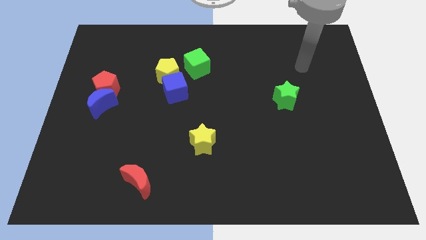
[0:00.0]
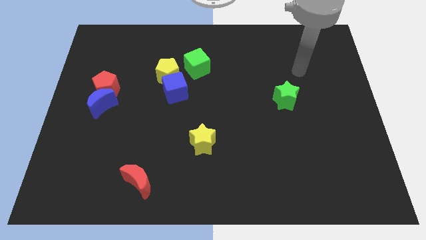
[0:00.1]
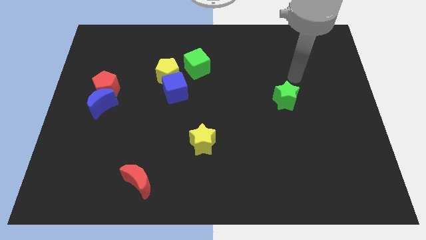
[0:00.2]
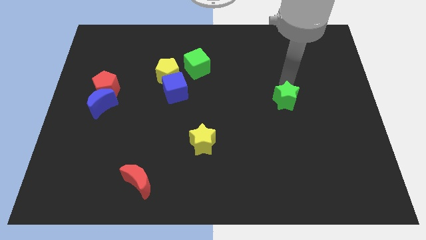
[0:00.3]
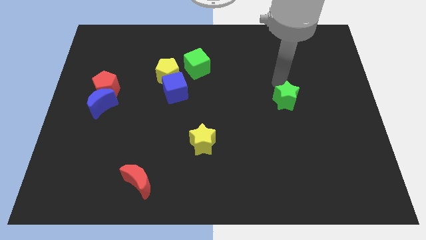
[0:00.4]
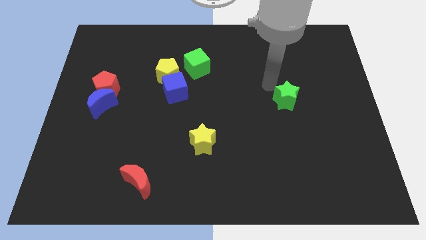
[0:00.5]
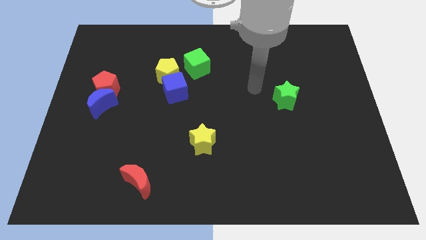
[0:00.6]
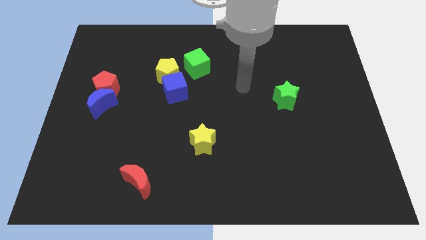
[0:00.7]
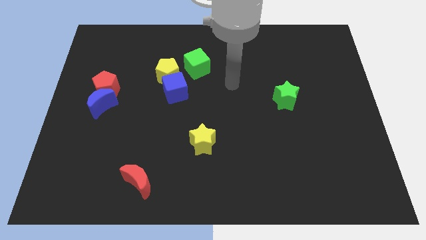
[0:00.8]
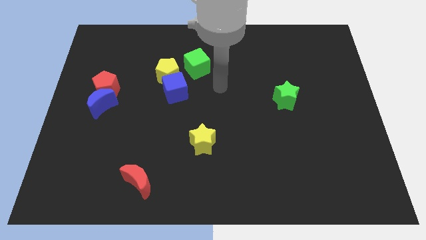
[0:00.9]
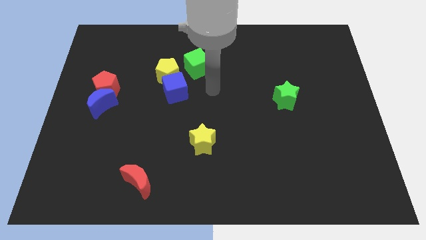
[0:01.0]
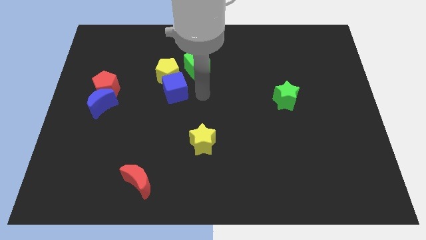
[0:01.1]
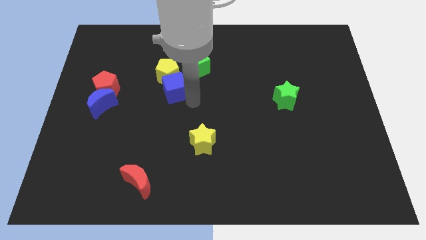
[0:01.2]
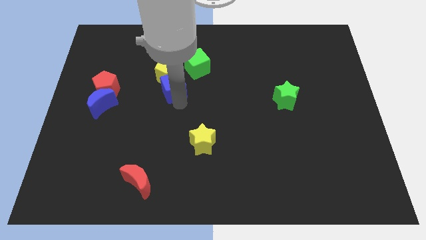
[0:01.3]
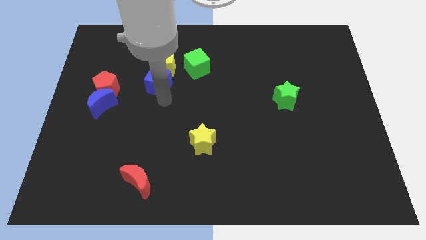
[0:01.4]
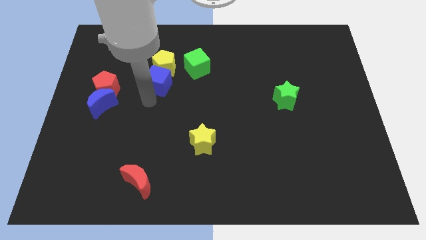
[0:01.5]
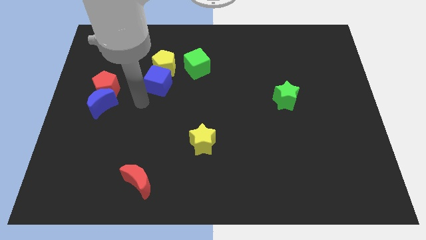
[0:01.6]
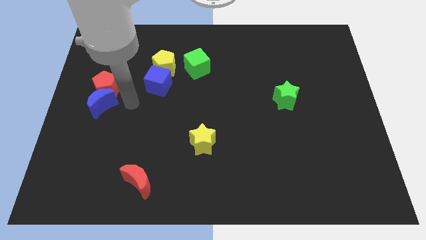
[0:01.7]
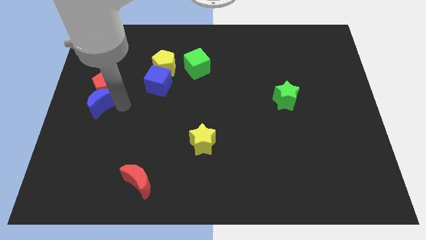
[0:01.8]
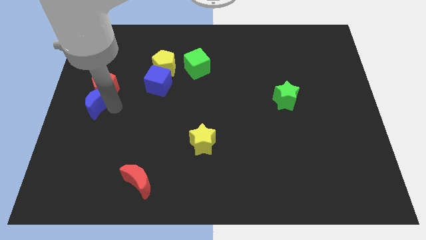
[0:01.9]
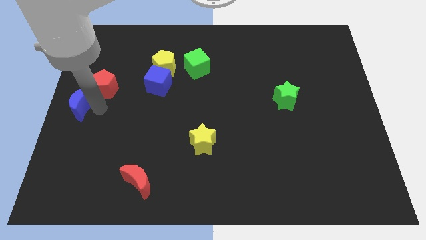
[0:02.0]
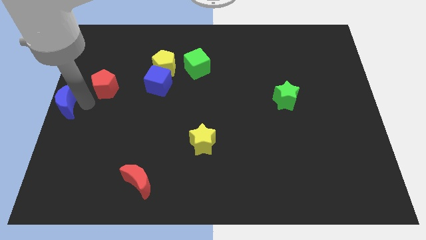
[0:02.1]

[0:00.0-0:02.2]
separate the red pentagon from the blue moon

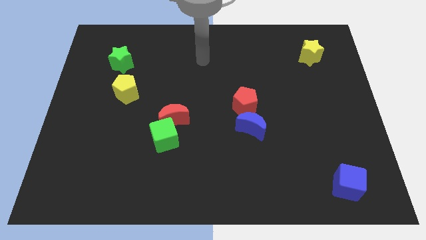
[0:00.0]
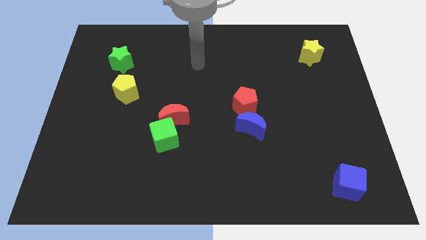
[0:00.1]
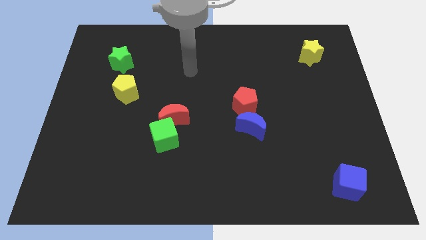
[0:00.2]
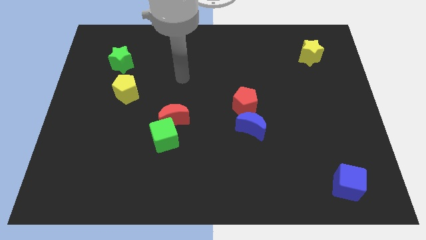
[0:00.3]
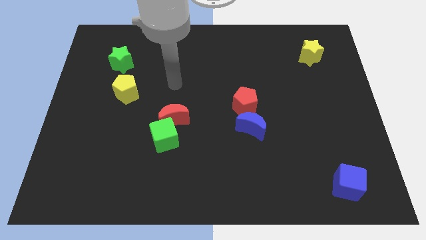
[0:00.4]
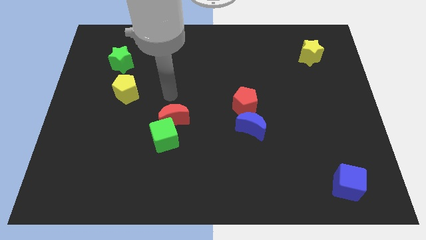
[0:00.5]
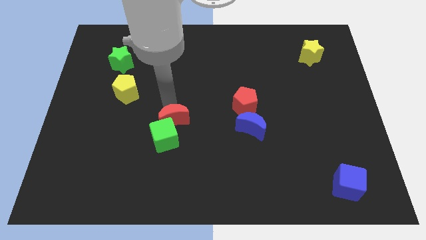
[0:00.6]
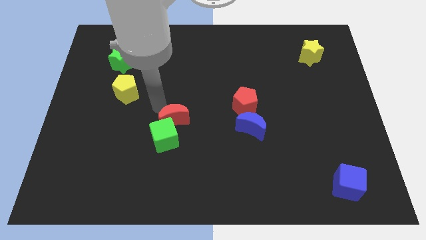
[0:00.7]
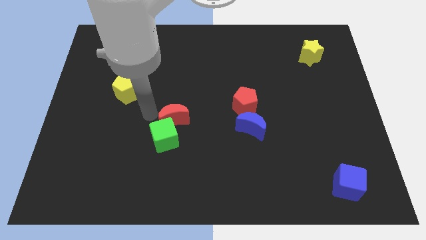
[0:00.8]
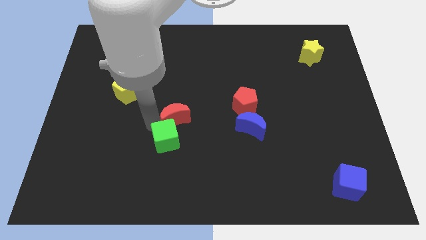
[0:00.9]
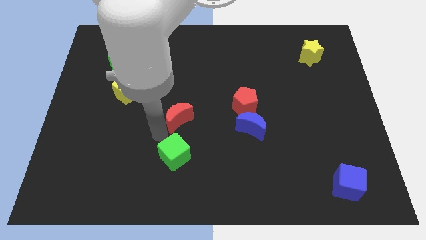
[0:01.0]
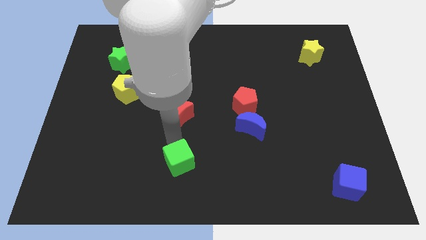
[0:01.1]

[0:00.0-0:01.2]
separate the red moon from the green cube

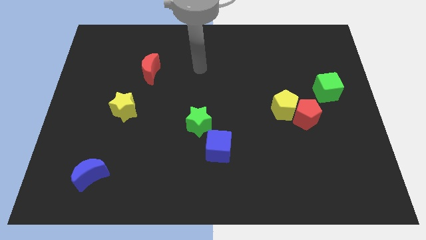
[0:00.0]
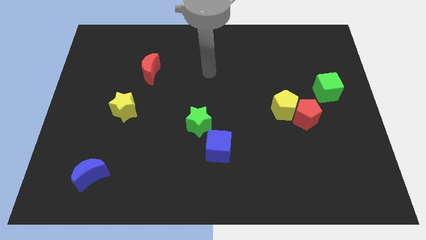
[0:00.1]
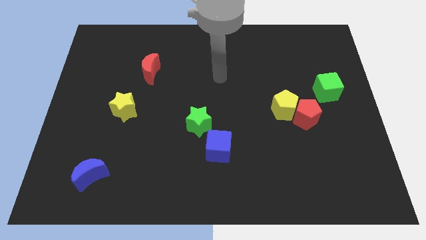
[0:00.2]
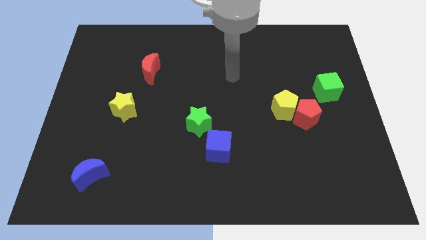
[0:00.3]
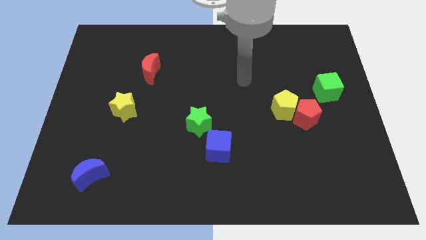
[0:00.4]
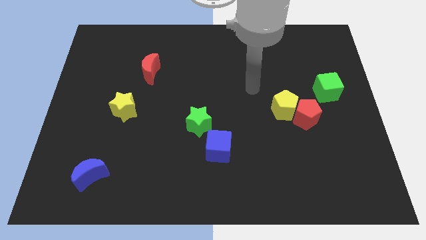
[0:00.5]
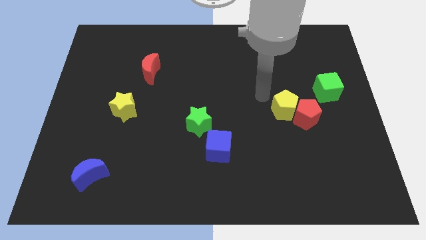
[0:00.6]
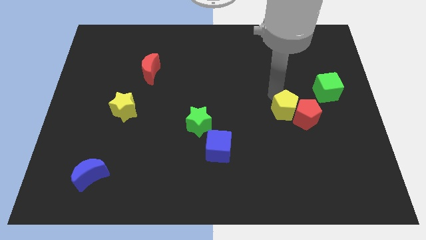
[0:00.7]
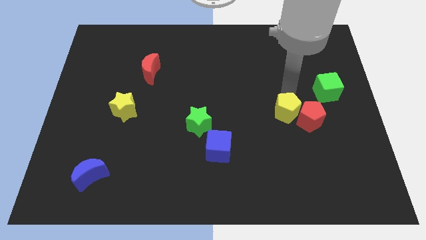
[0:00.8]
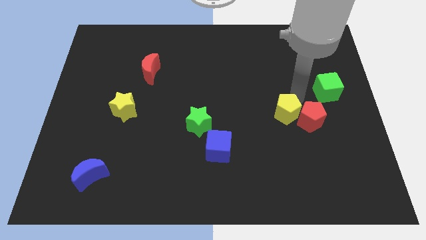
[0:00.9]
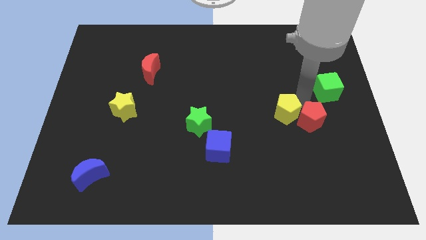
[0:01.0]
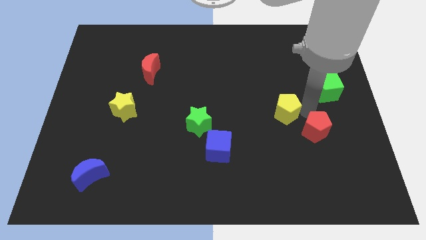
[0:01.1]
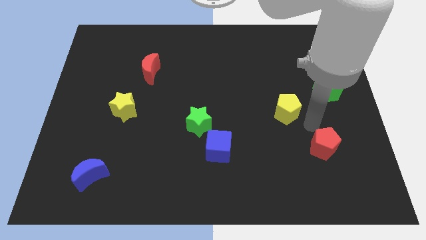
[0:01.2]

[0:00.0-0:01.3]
move the yellow pentagon away from the red pentagon

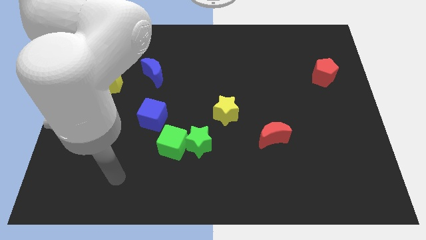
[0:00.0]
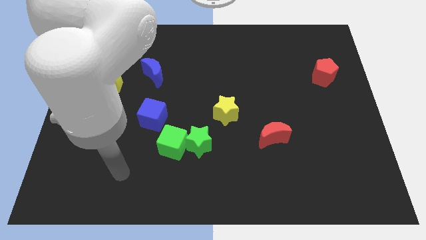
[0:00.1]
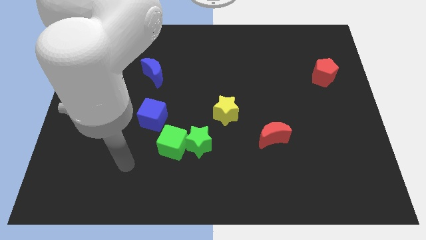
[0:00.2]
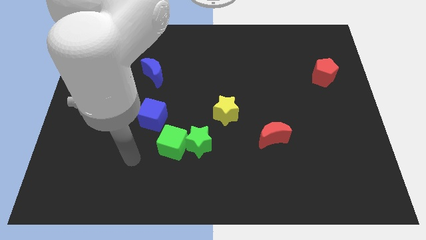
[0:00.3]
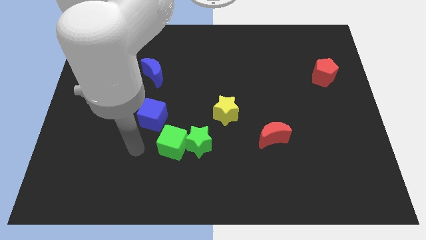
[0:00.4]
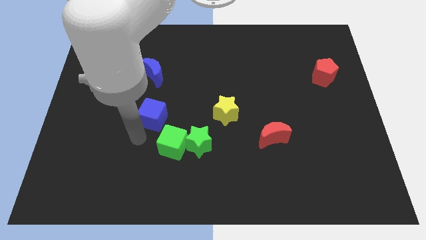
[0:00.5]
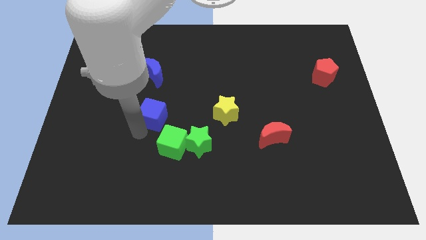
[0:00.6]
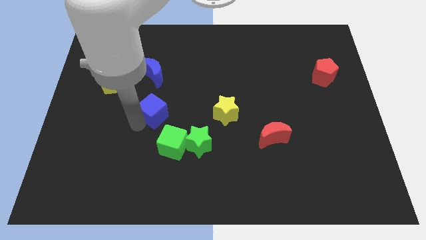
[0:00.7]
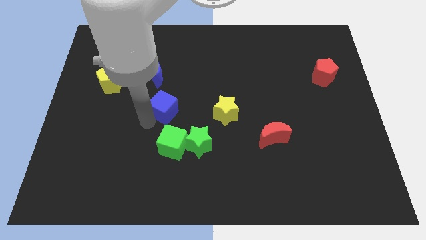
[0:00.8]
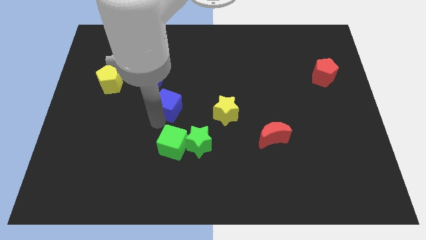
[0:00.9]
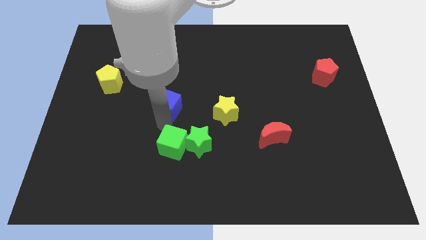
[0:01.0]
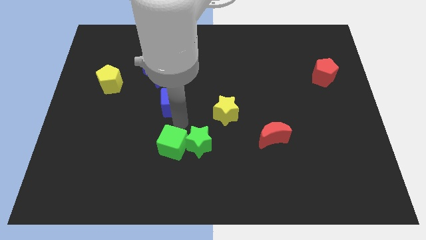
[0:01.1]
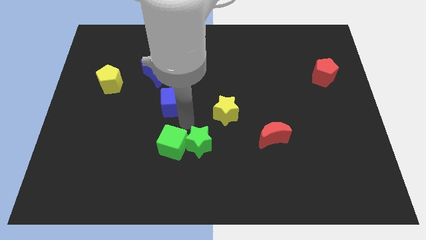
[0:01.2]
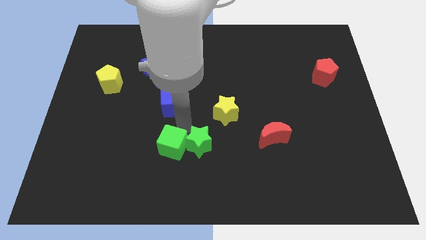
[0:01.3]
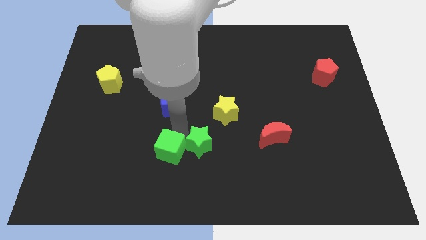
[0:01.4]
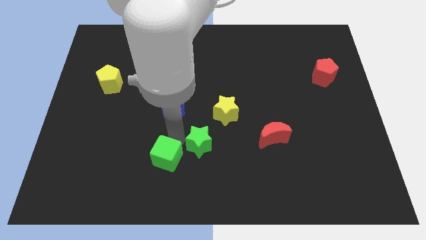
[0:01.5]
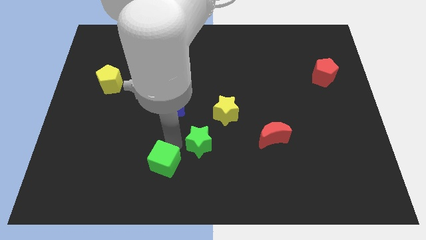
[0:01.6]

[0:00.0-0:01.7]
separate the green cube from the green star and blue cube

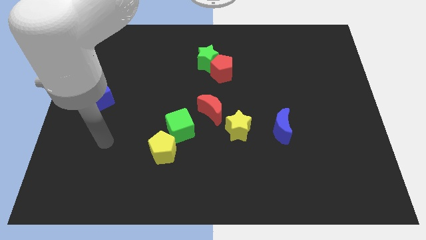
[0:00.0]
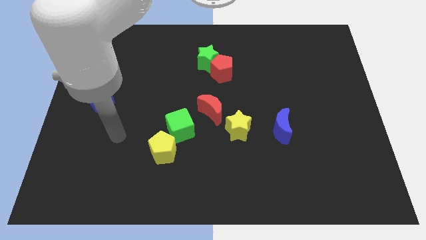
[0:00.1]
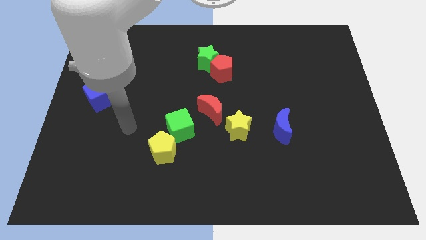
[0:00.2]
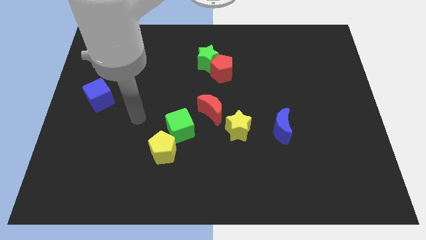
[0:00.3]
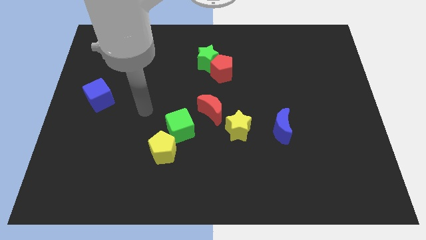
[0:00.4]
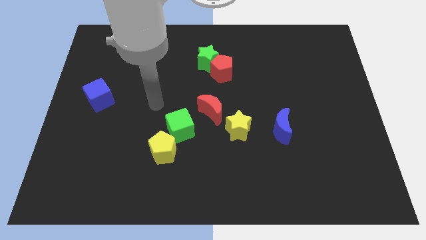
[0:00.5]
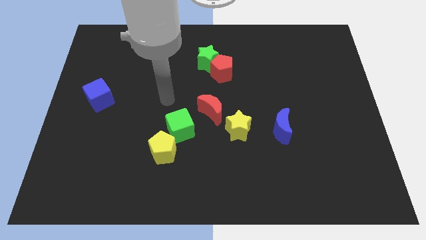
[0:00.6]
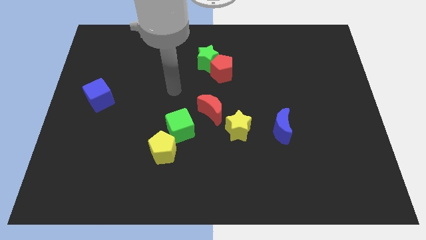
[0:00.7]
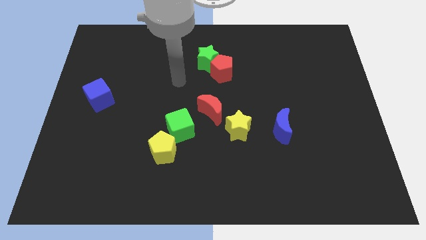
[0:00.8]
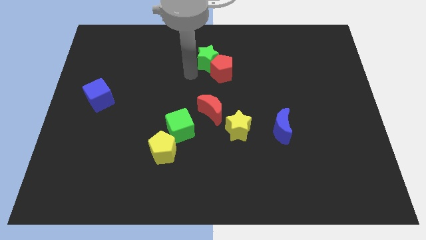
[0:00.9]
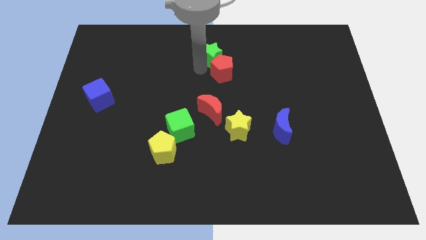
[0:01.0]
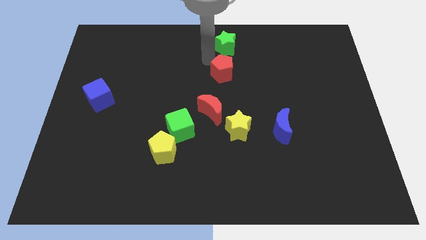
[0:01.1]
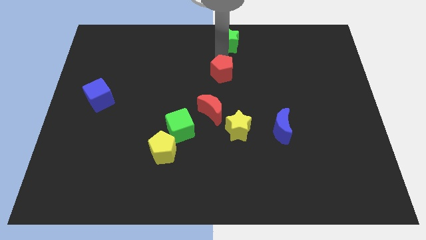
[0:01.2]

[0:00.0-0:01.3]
move the red pentagon away from the green star

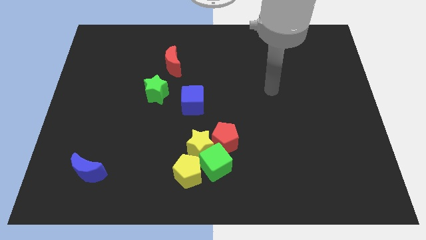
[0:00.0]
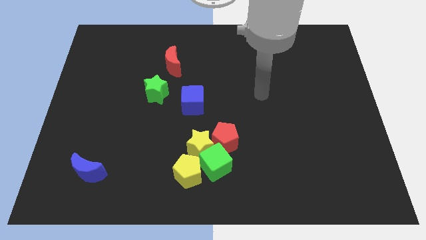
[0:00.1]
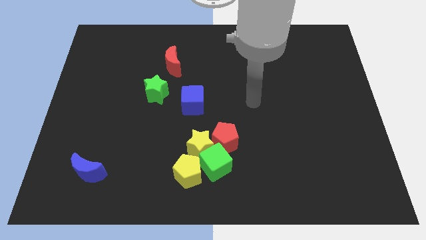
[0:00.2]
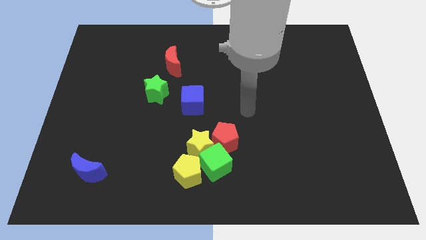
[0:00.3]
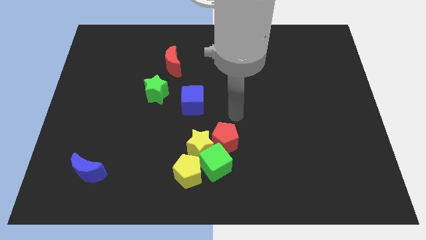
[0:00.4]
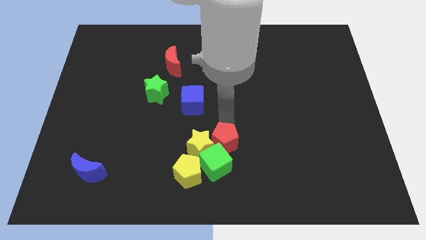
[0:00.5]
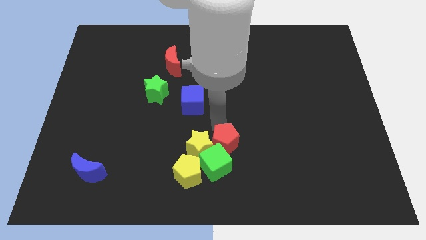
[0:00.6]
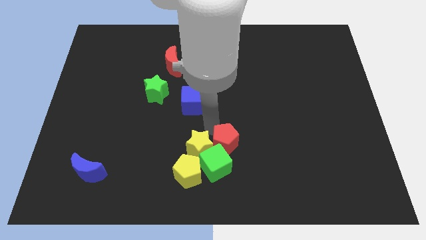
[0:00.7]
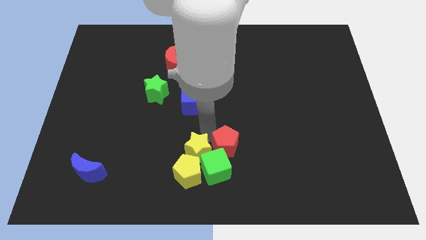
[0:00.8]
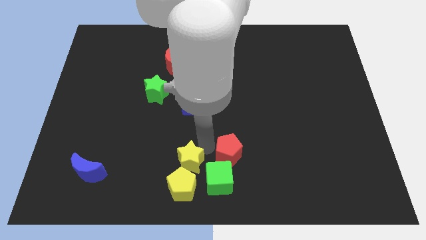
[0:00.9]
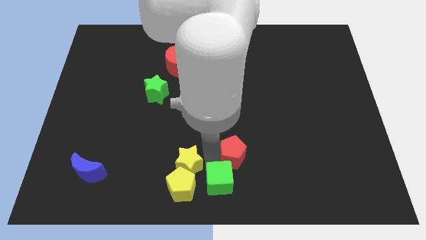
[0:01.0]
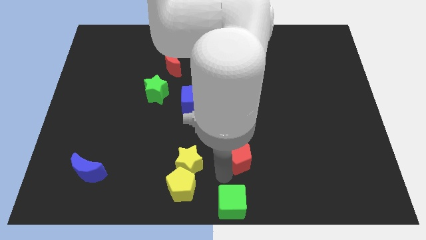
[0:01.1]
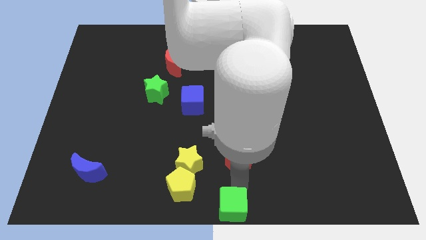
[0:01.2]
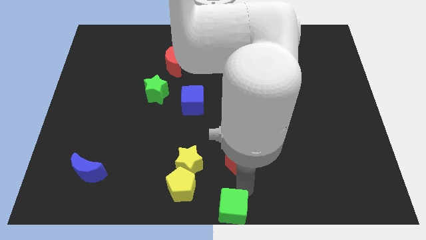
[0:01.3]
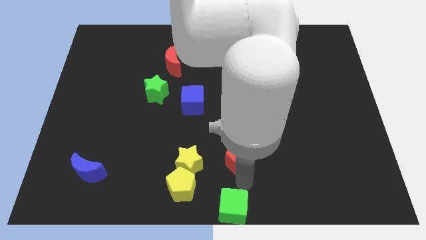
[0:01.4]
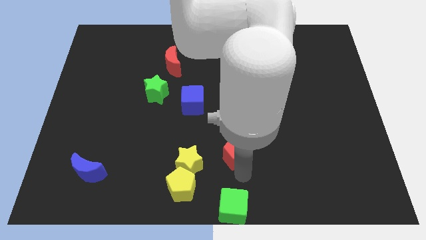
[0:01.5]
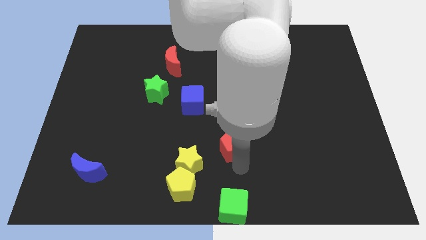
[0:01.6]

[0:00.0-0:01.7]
move the red pentagon away from the yellow star and green cube
